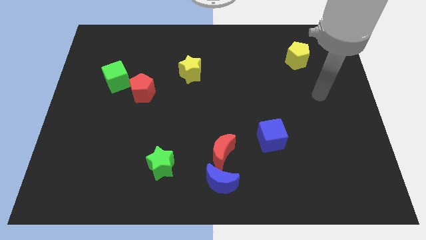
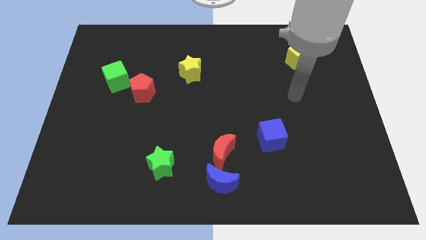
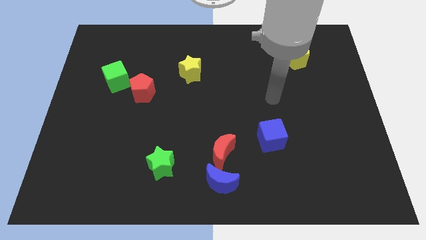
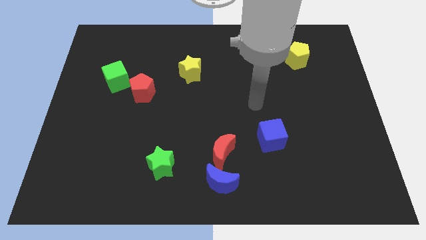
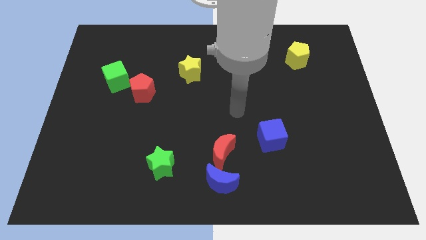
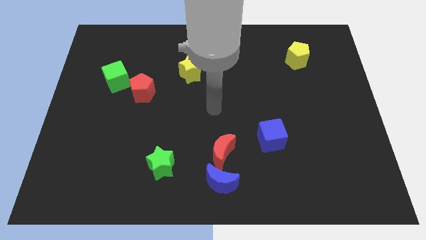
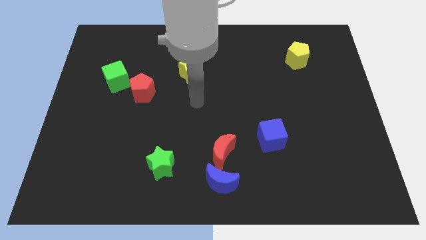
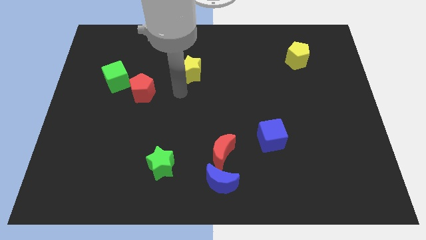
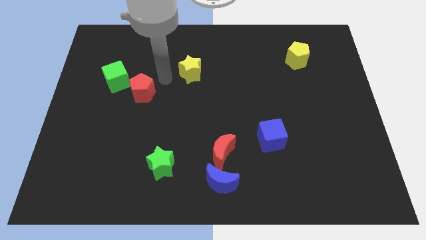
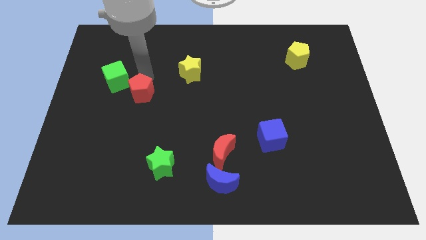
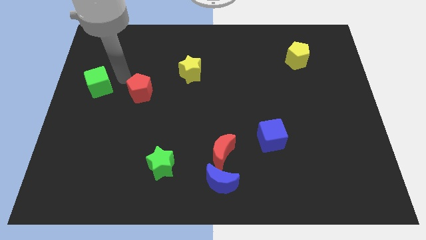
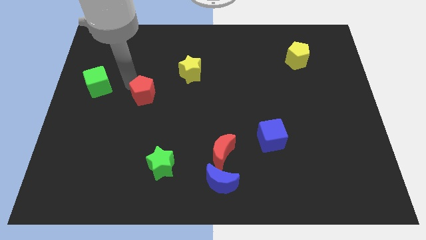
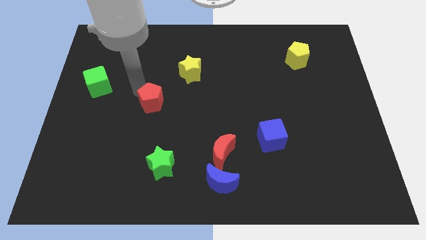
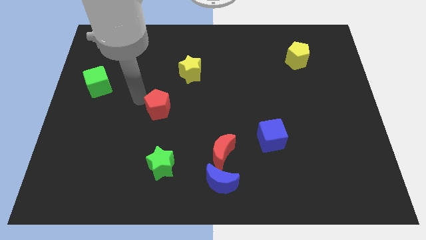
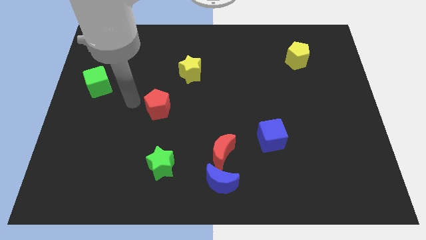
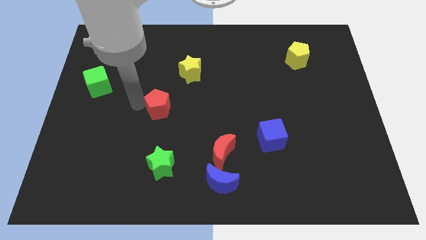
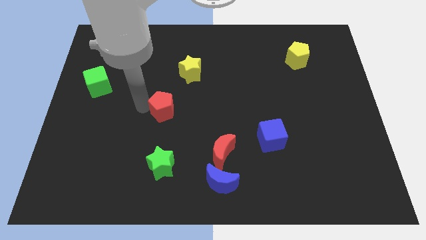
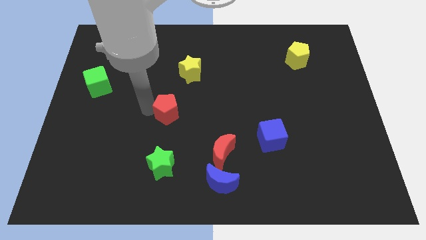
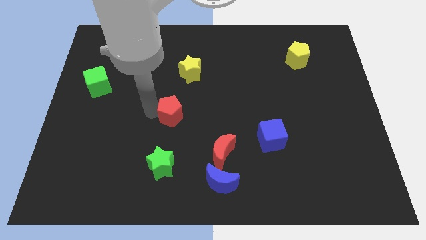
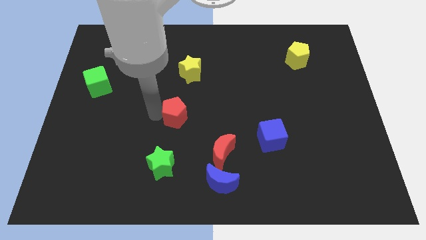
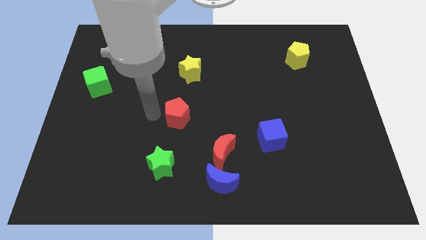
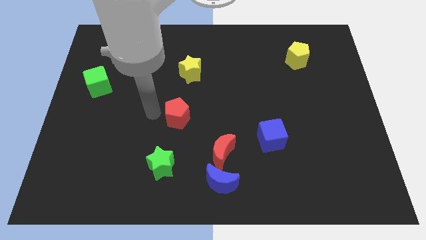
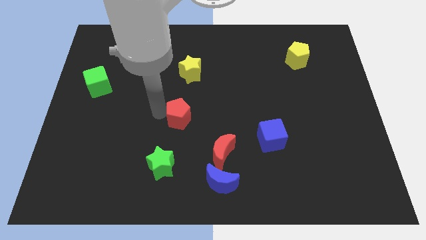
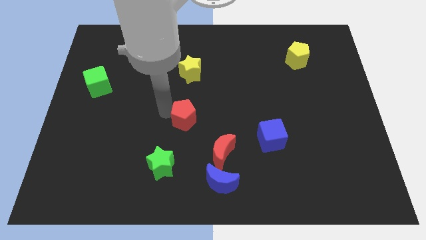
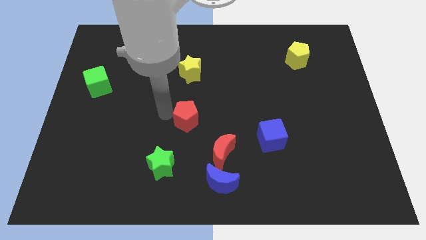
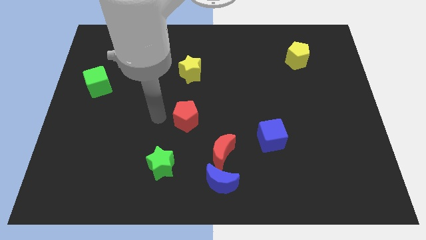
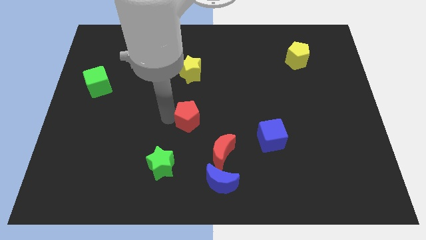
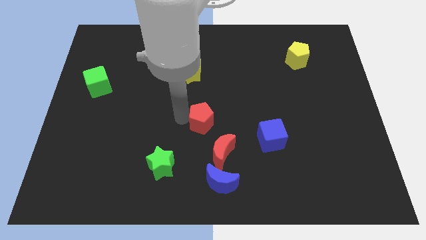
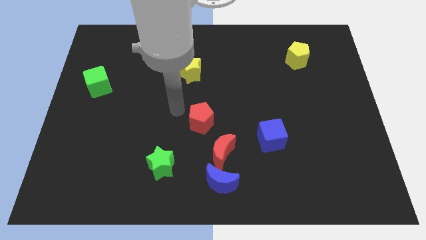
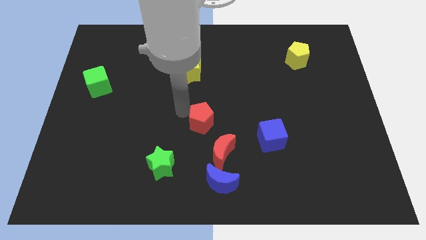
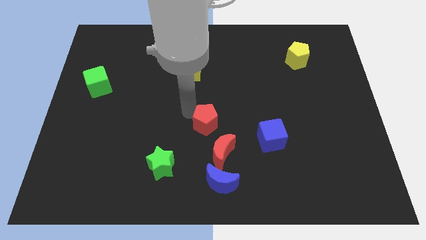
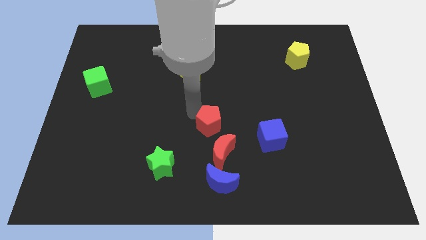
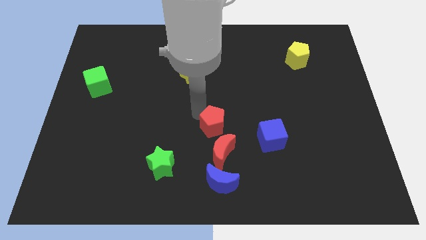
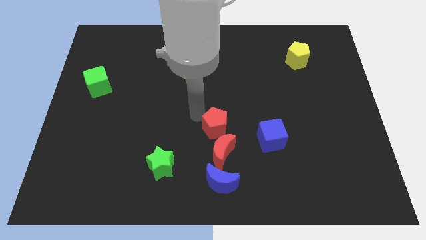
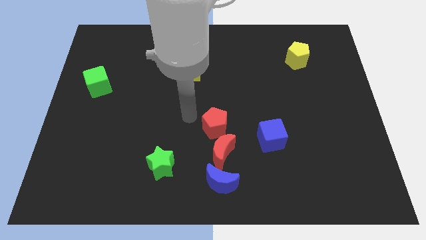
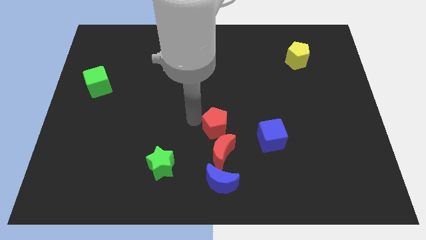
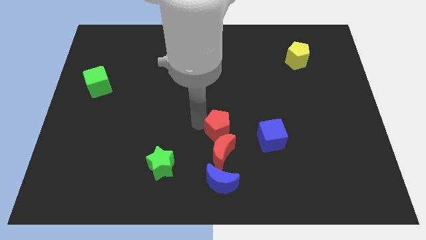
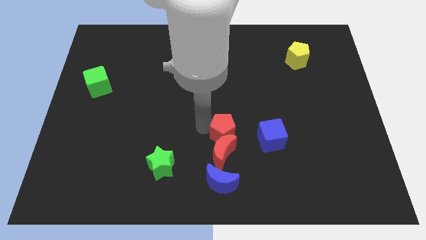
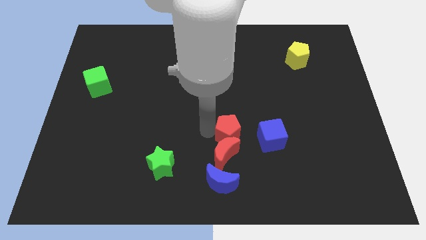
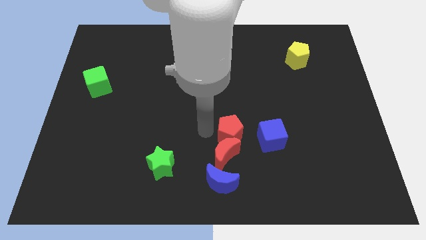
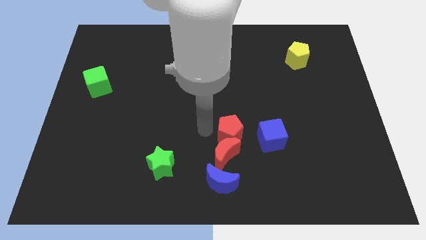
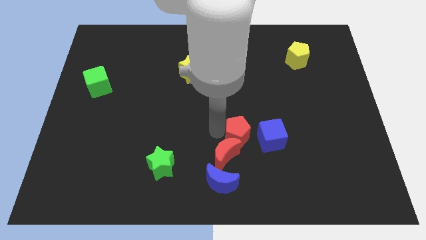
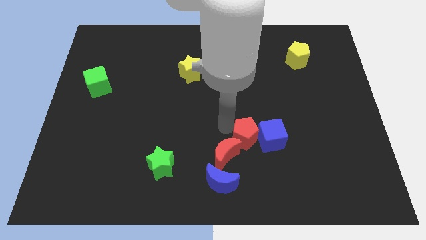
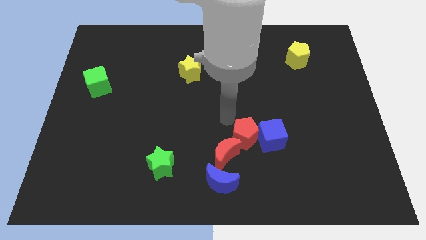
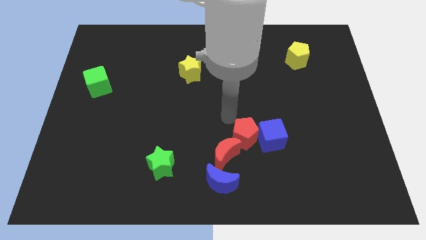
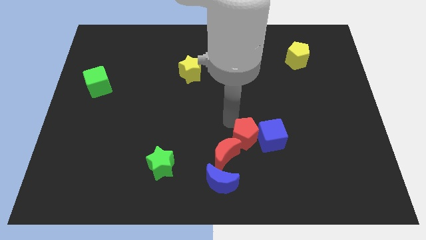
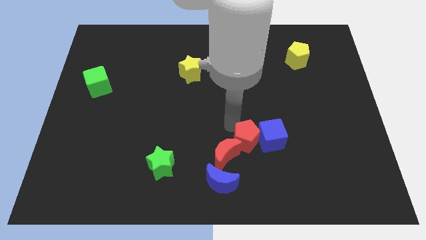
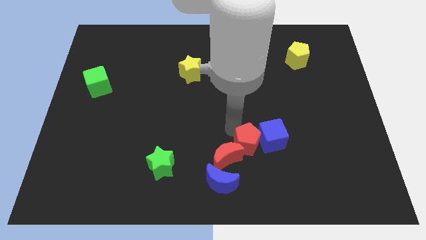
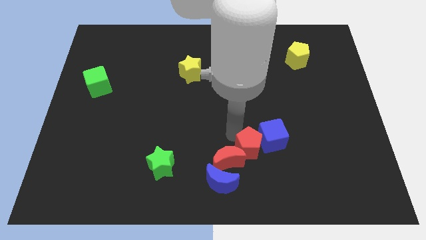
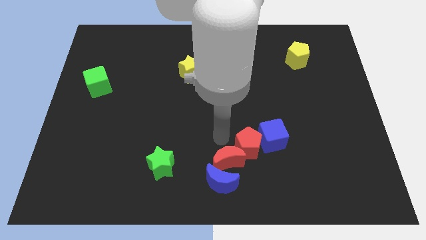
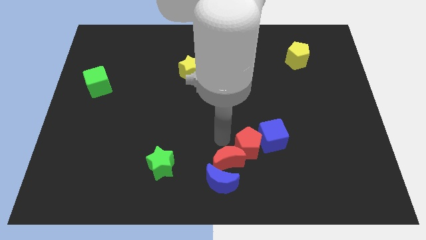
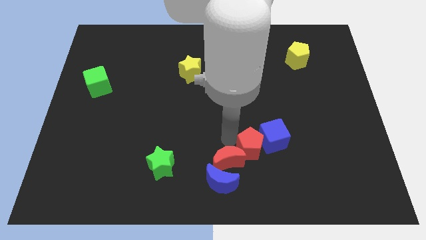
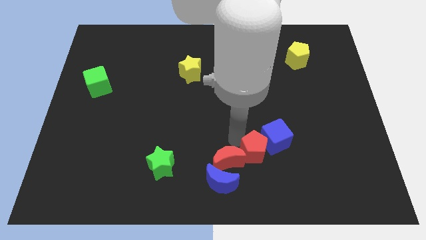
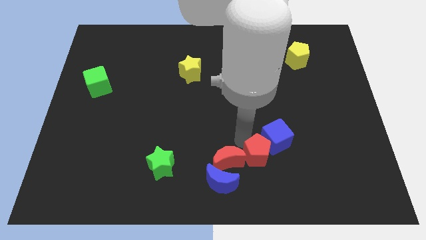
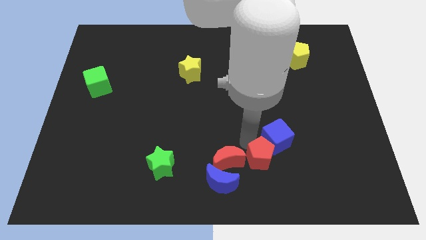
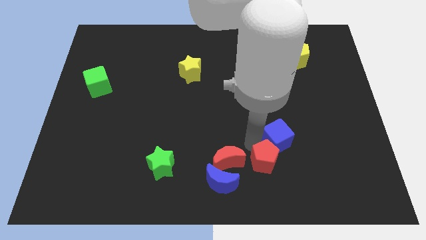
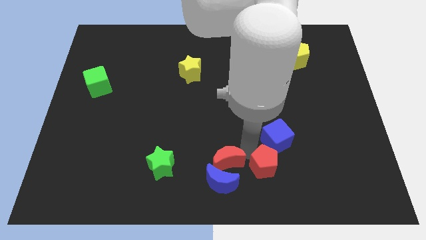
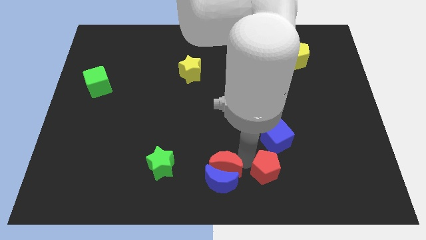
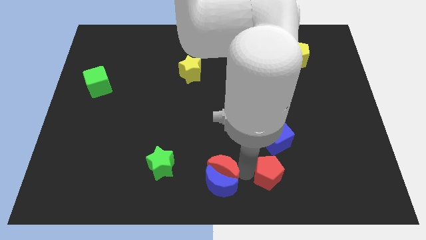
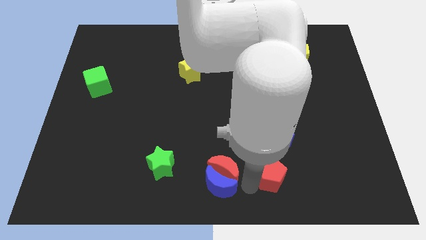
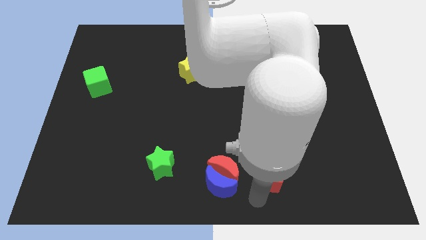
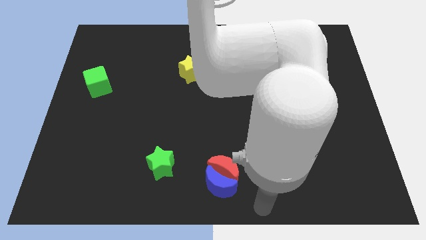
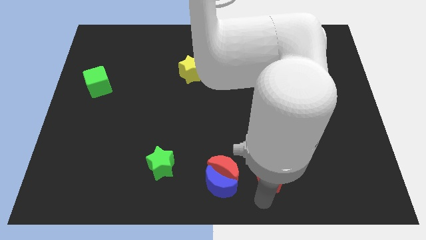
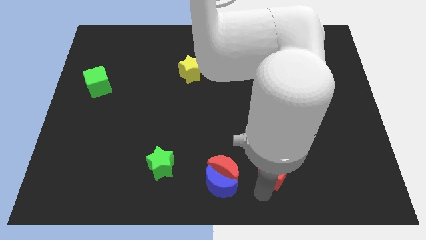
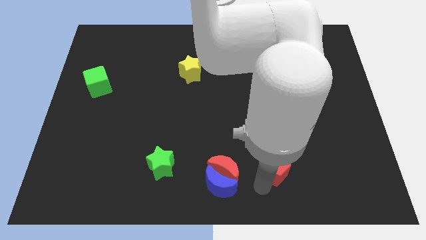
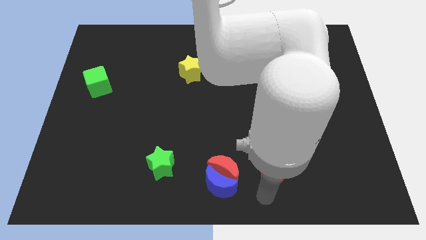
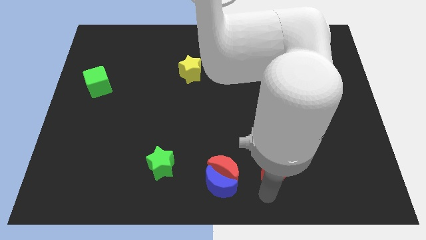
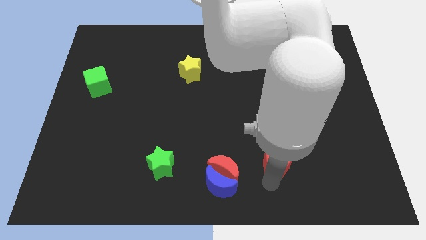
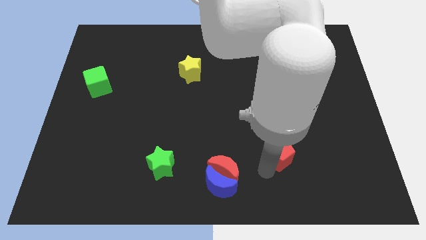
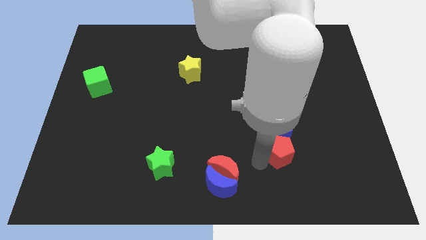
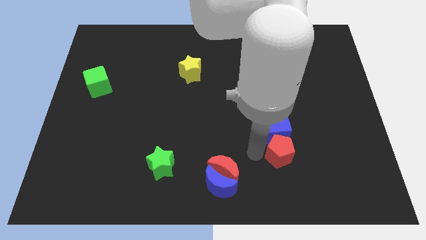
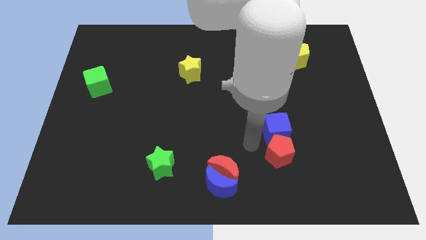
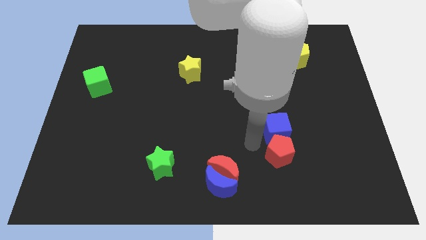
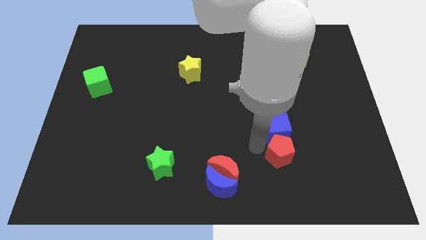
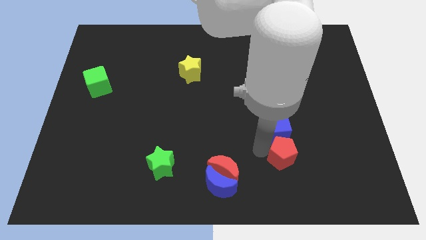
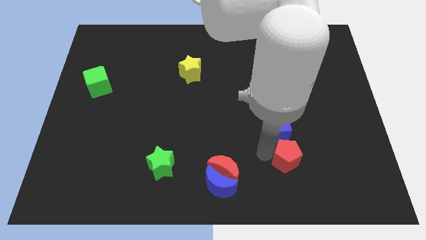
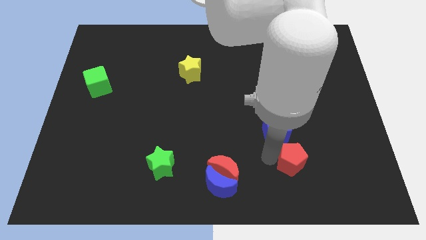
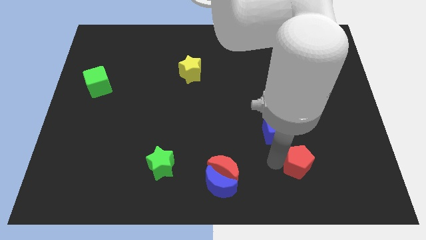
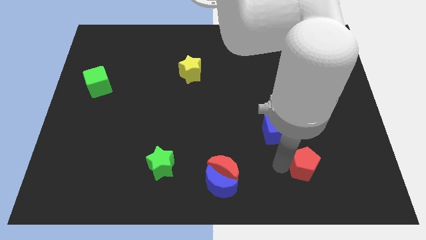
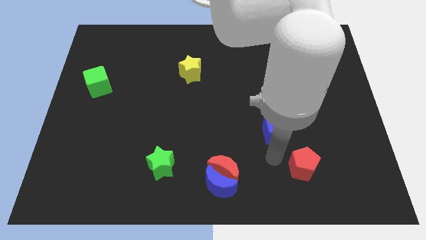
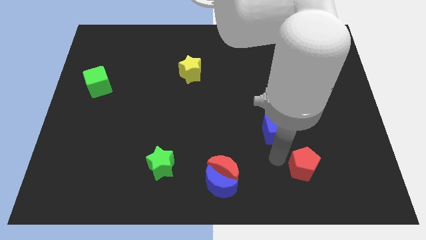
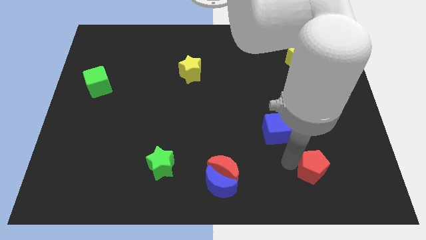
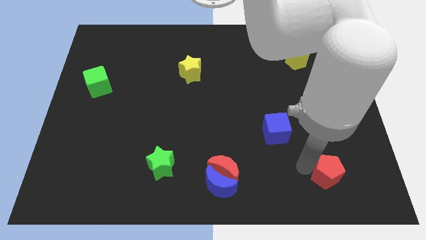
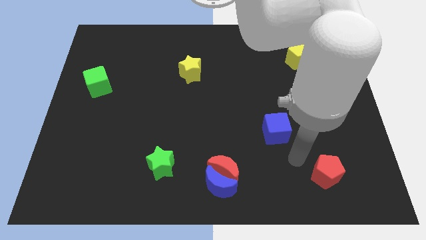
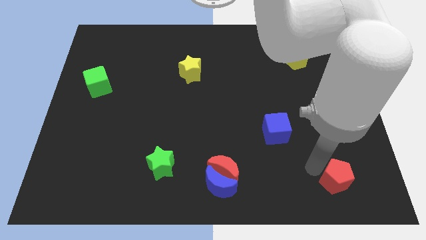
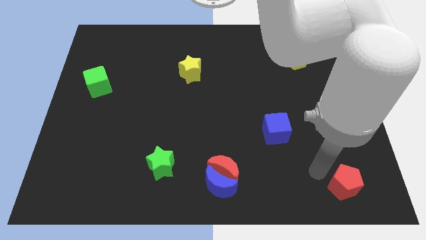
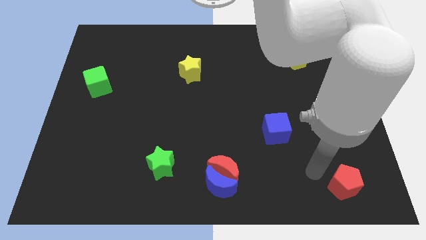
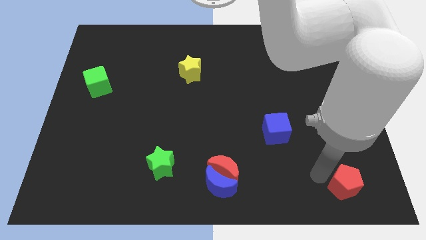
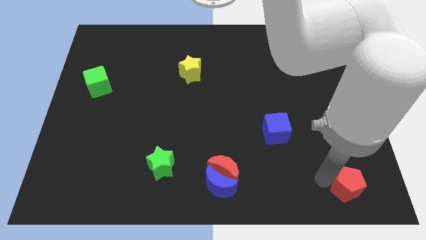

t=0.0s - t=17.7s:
put the red pentagon to the bottom right corner
